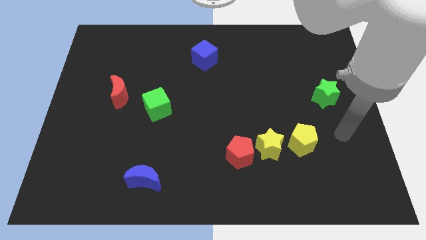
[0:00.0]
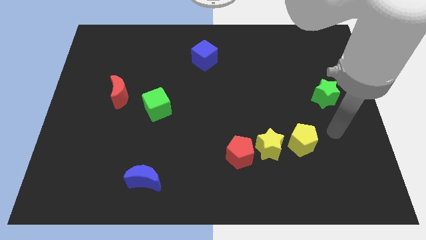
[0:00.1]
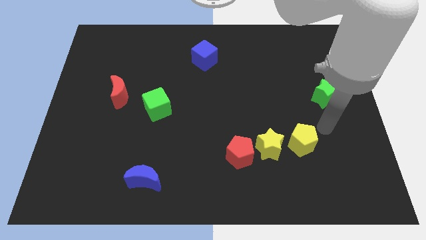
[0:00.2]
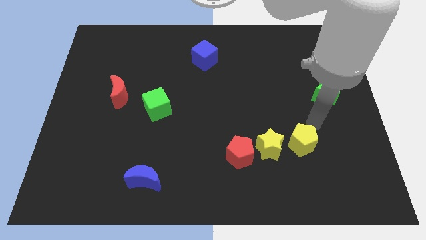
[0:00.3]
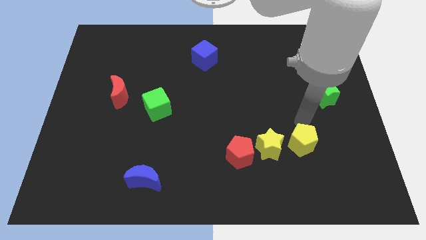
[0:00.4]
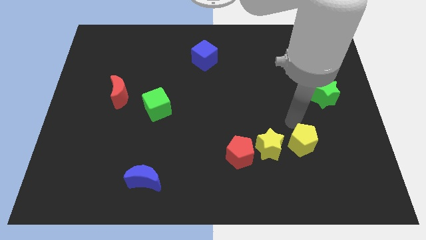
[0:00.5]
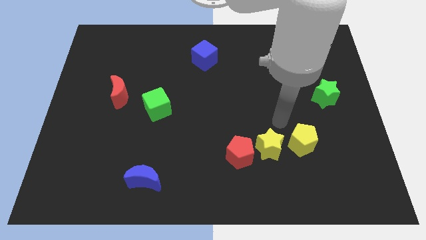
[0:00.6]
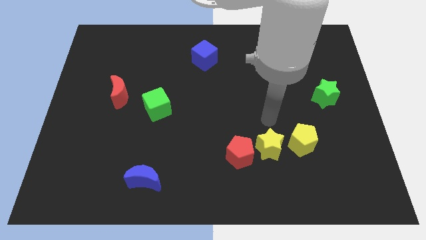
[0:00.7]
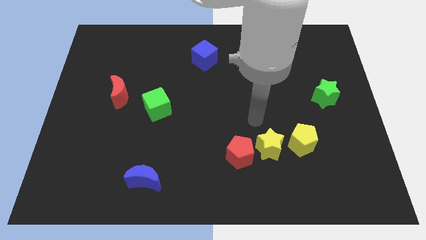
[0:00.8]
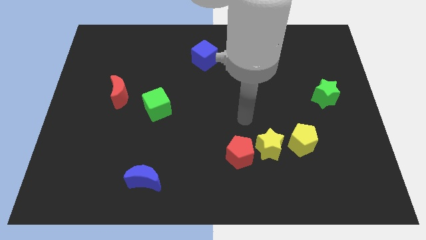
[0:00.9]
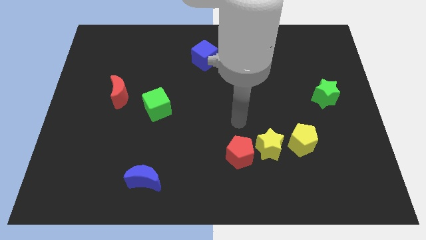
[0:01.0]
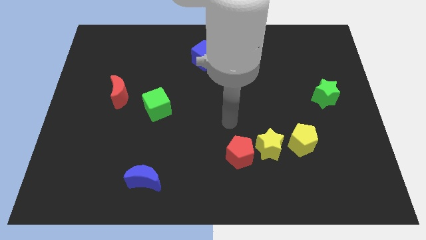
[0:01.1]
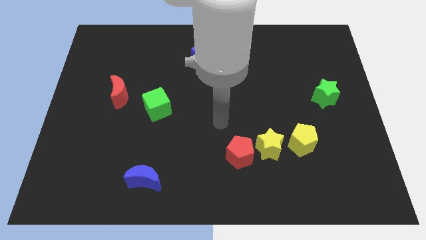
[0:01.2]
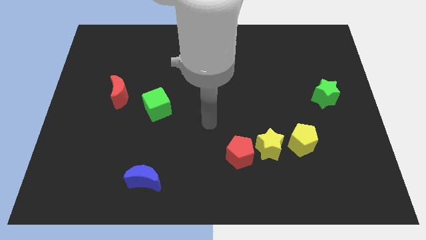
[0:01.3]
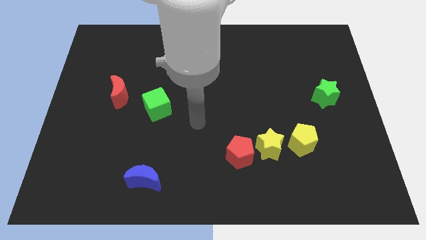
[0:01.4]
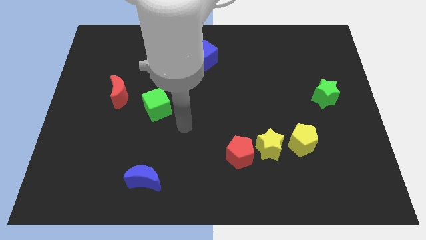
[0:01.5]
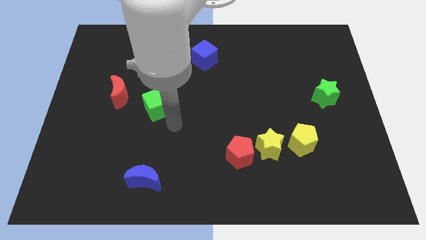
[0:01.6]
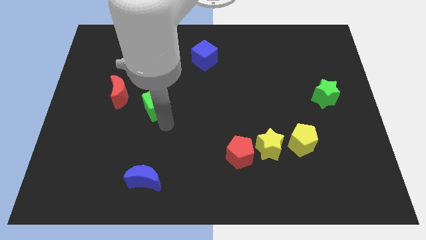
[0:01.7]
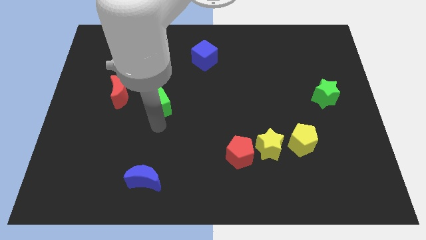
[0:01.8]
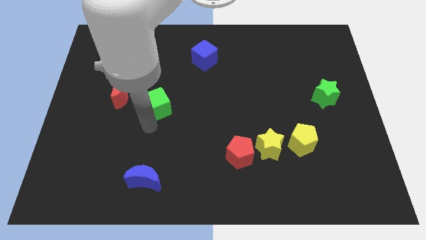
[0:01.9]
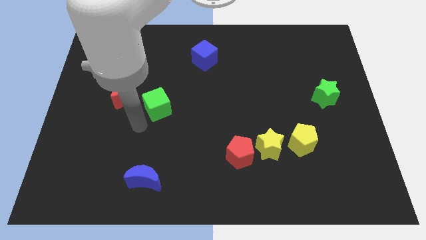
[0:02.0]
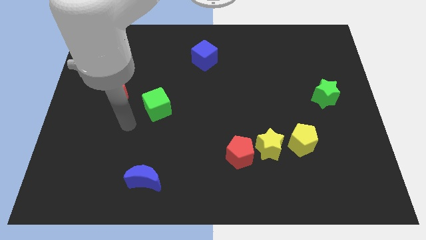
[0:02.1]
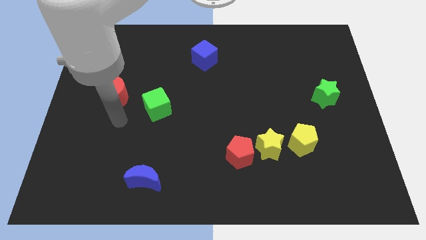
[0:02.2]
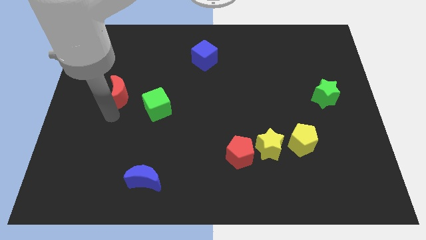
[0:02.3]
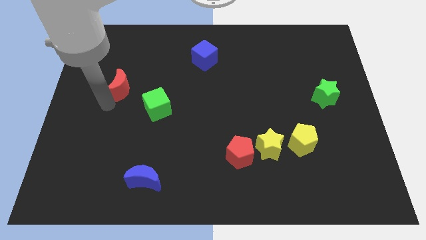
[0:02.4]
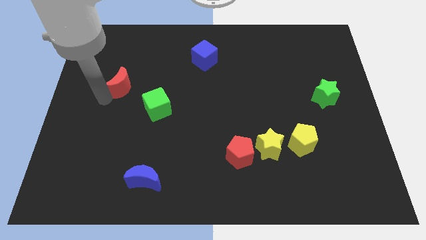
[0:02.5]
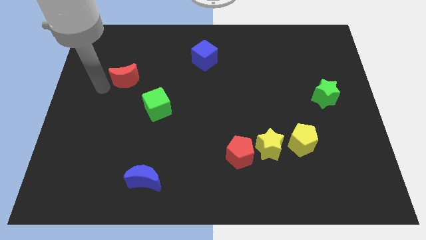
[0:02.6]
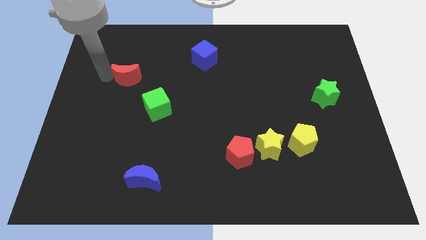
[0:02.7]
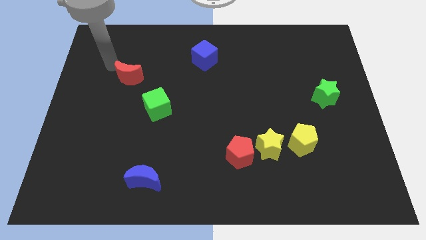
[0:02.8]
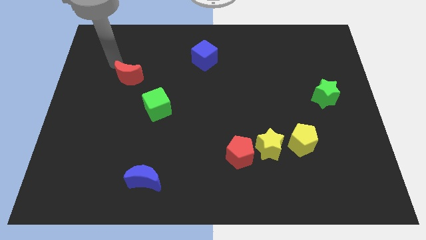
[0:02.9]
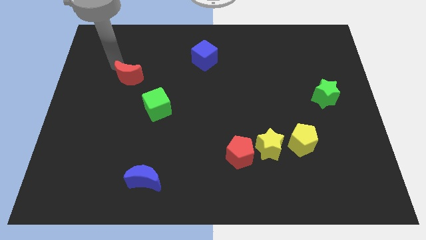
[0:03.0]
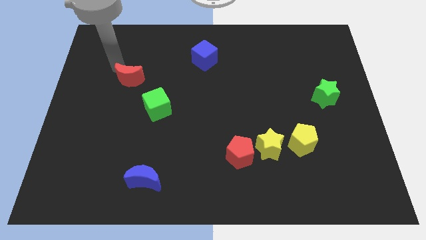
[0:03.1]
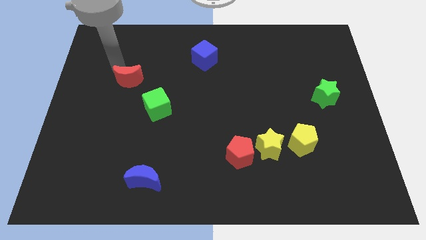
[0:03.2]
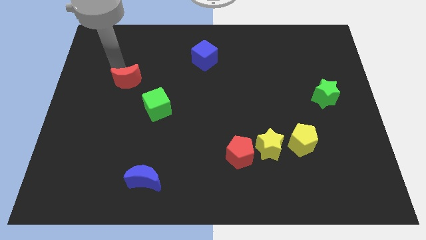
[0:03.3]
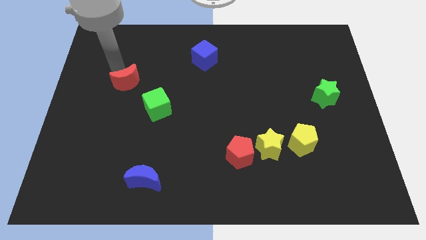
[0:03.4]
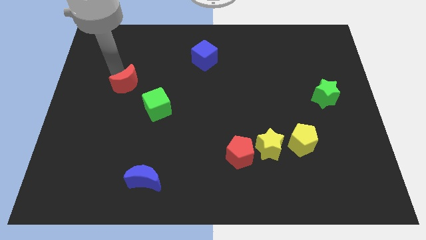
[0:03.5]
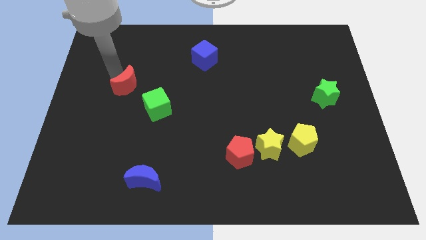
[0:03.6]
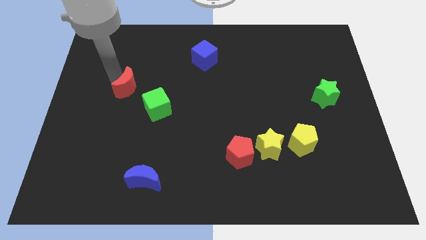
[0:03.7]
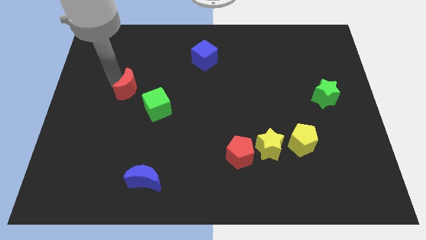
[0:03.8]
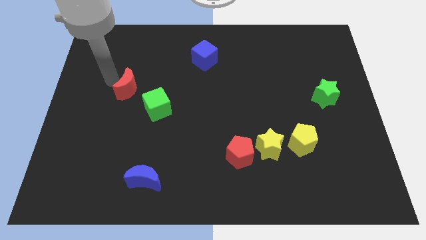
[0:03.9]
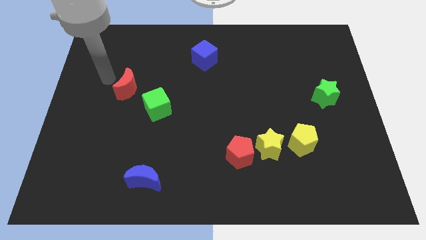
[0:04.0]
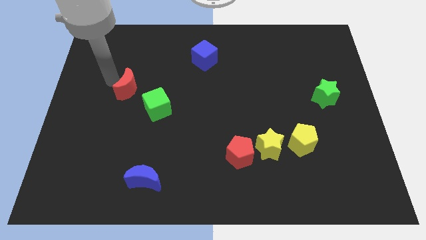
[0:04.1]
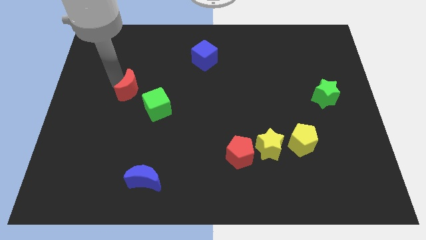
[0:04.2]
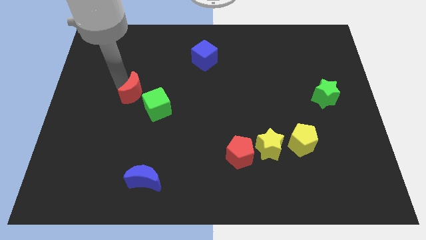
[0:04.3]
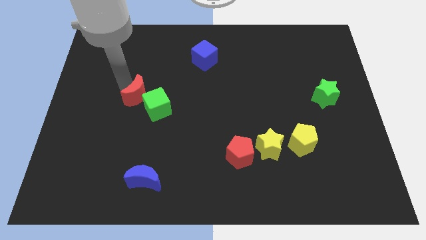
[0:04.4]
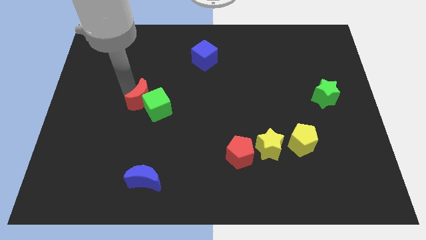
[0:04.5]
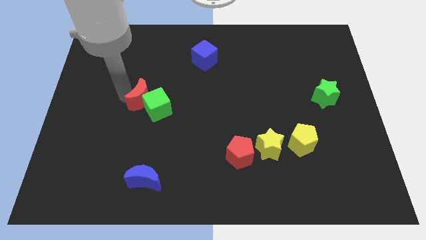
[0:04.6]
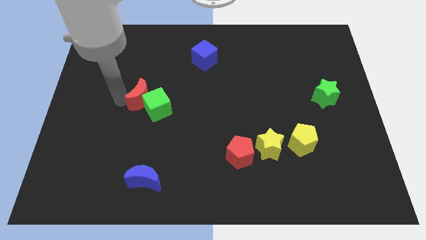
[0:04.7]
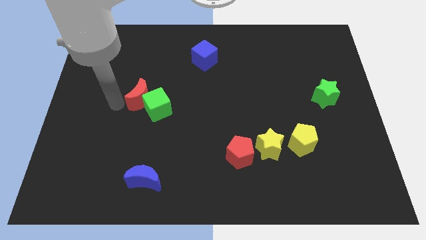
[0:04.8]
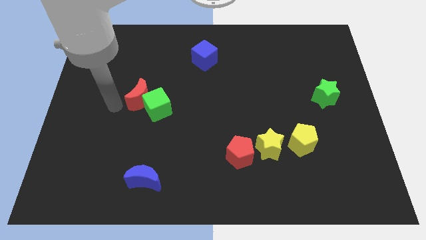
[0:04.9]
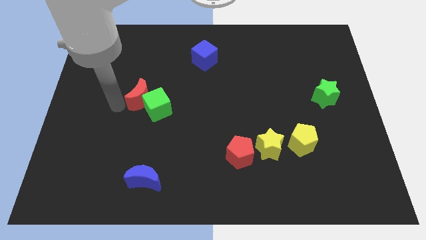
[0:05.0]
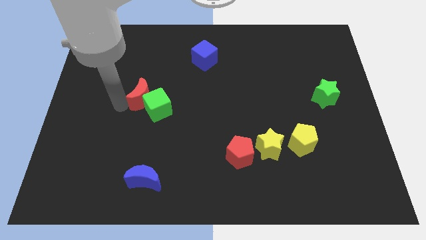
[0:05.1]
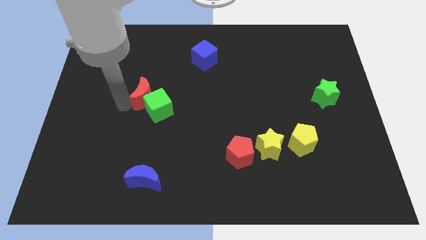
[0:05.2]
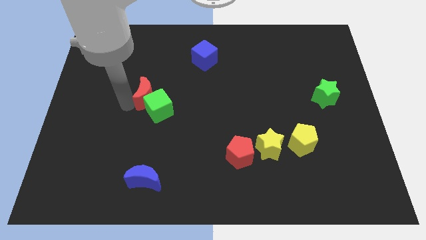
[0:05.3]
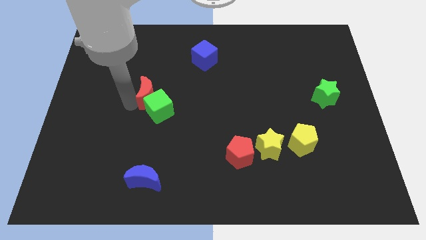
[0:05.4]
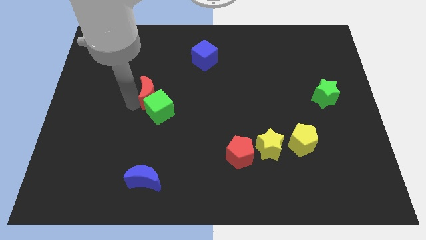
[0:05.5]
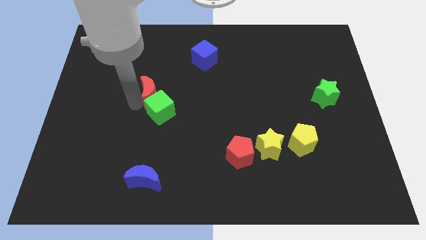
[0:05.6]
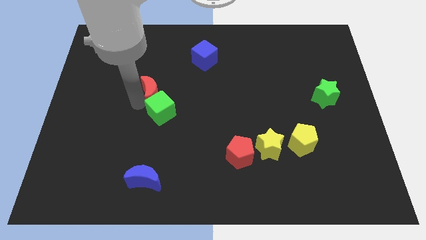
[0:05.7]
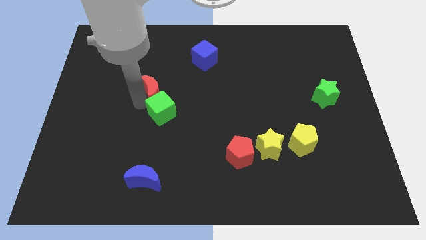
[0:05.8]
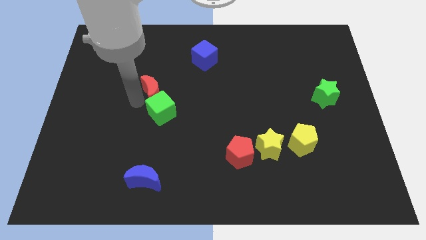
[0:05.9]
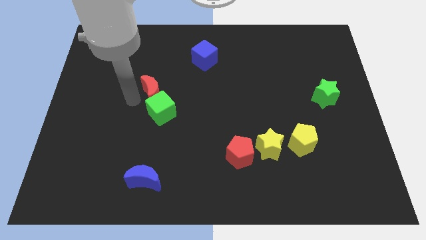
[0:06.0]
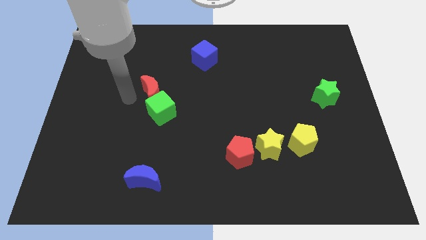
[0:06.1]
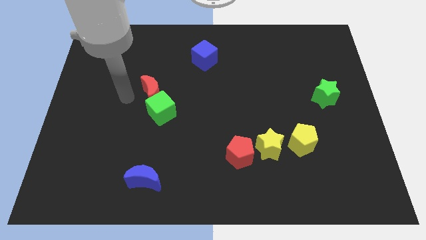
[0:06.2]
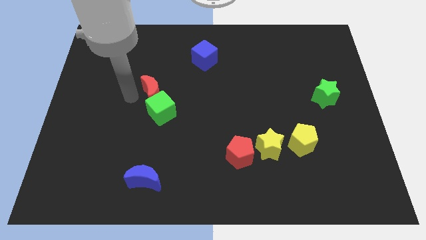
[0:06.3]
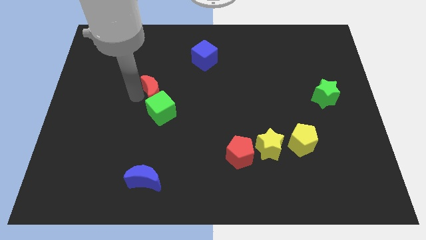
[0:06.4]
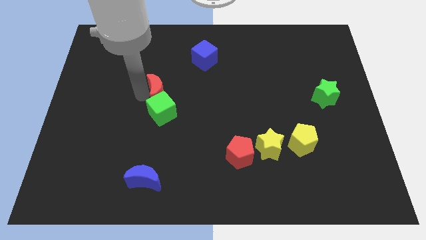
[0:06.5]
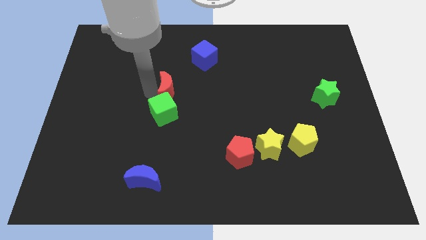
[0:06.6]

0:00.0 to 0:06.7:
put the red moon to the center

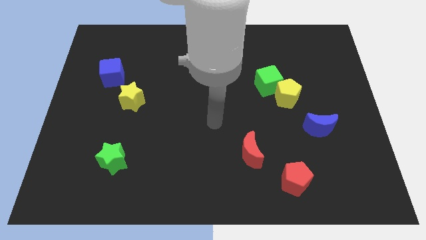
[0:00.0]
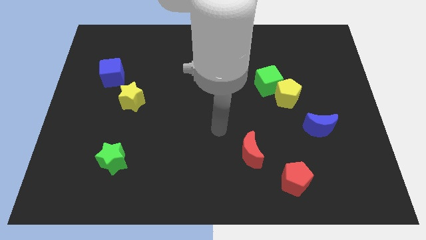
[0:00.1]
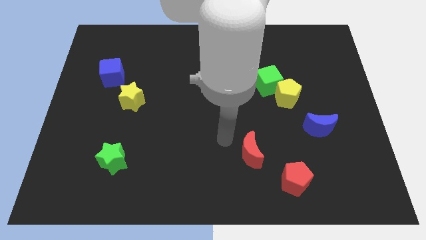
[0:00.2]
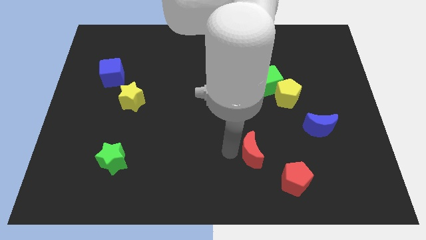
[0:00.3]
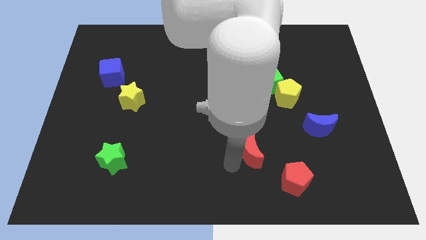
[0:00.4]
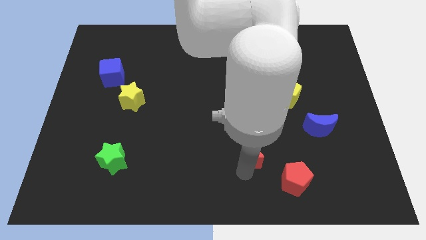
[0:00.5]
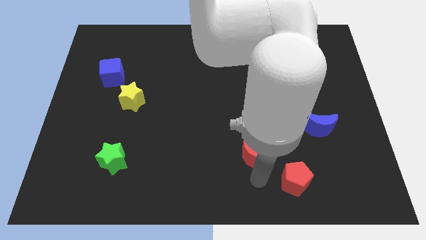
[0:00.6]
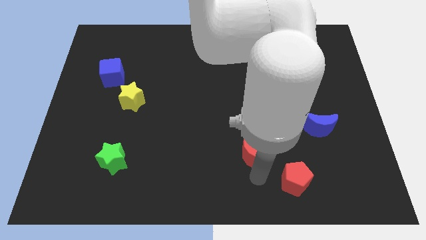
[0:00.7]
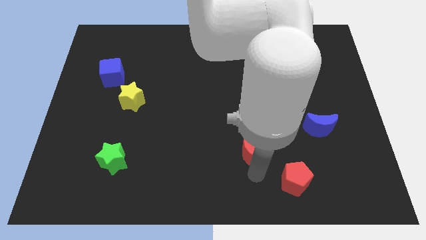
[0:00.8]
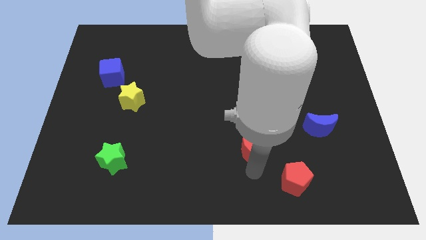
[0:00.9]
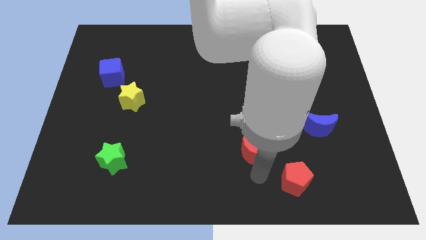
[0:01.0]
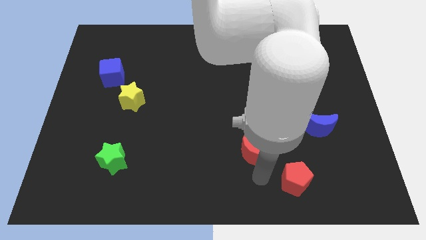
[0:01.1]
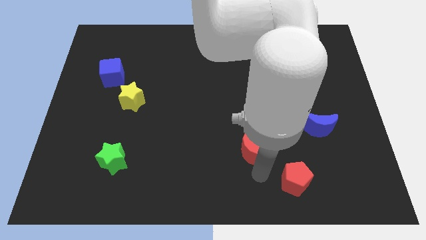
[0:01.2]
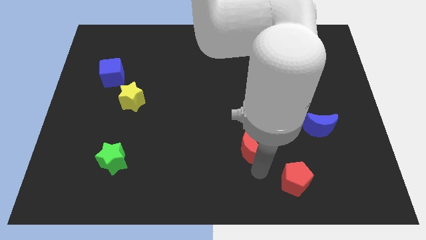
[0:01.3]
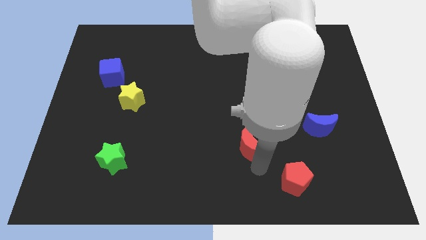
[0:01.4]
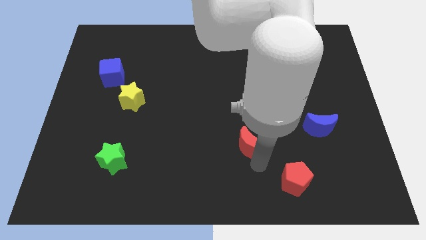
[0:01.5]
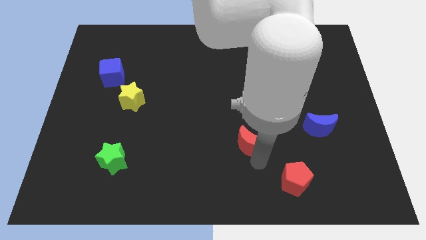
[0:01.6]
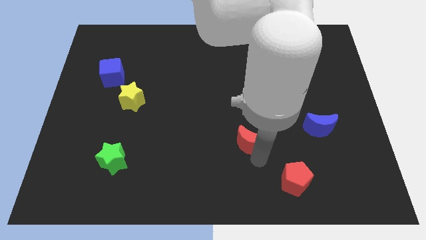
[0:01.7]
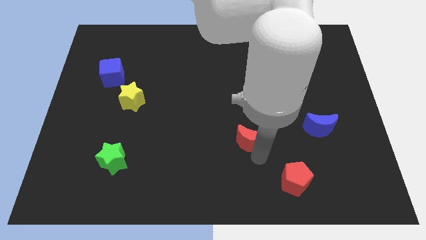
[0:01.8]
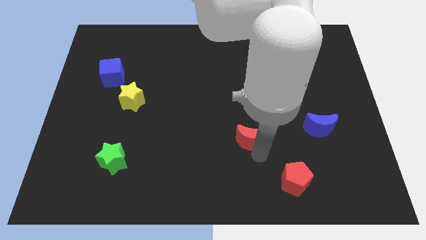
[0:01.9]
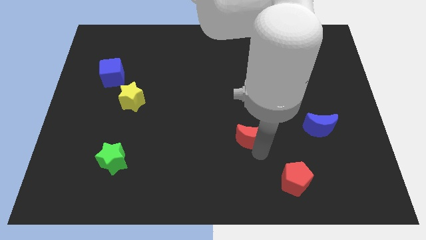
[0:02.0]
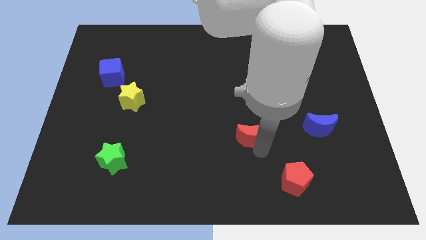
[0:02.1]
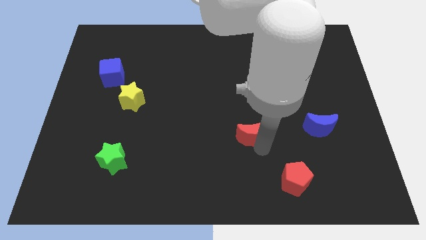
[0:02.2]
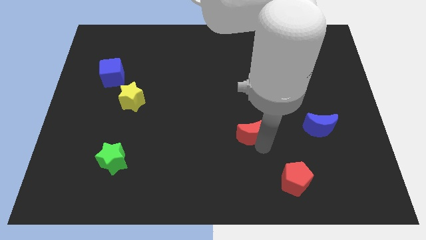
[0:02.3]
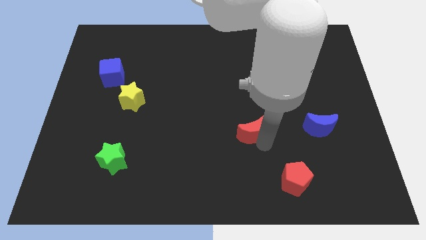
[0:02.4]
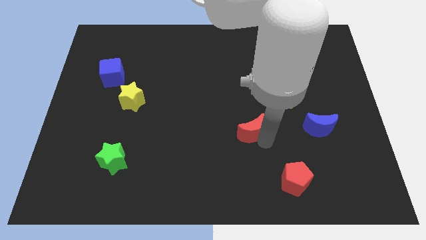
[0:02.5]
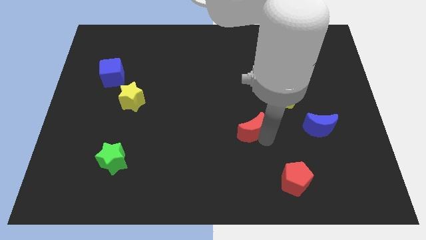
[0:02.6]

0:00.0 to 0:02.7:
put the red moon to the middle
